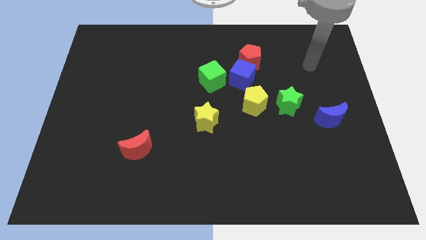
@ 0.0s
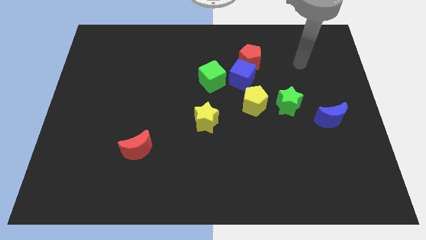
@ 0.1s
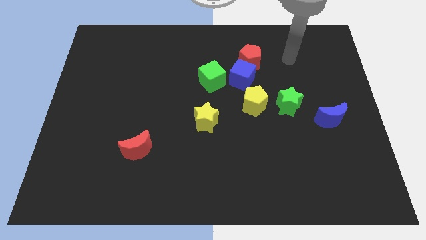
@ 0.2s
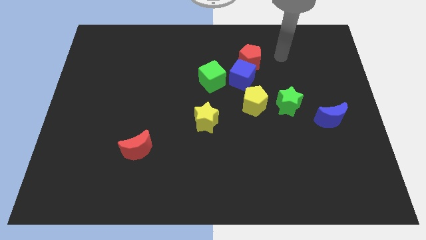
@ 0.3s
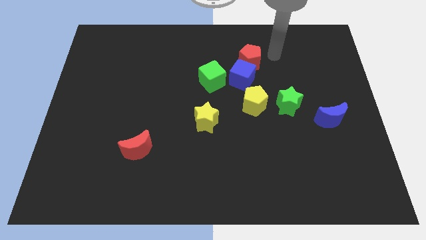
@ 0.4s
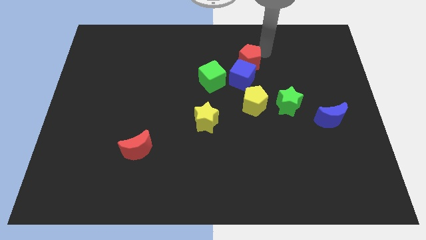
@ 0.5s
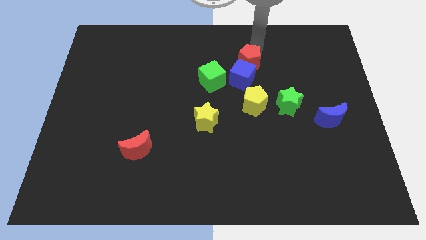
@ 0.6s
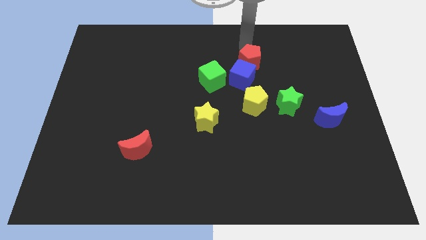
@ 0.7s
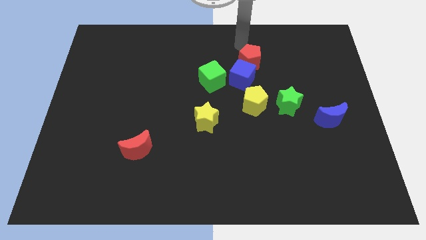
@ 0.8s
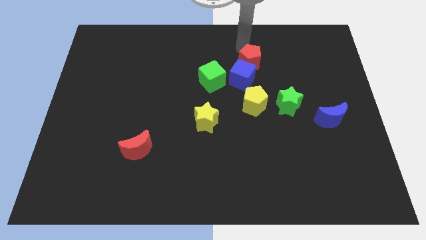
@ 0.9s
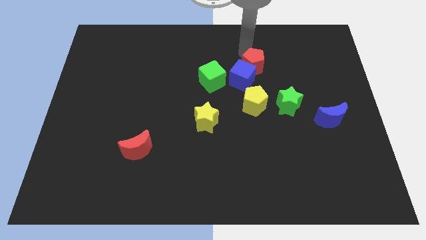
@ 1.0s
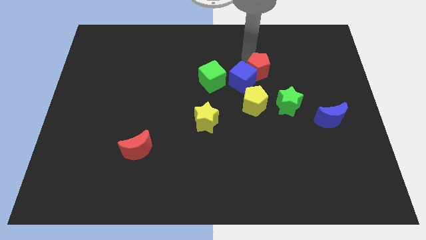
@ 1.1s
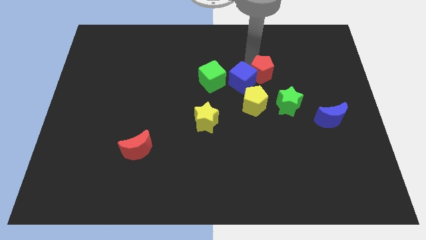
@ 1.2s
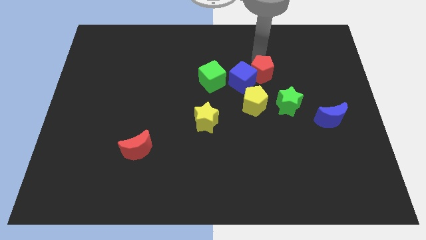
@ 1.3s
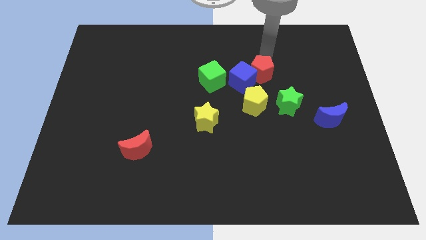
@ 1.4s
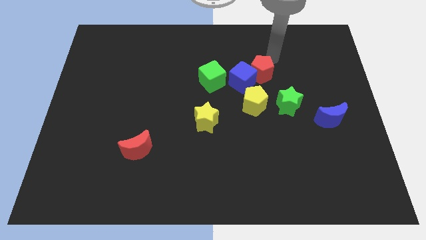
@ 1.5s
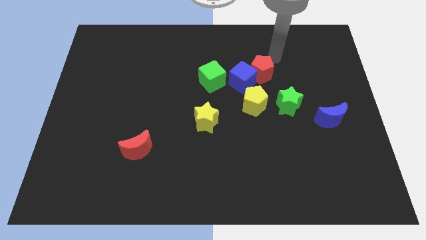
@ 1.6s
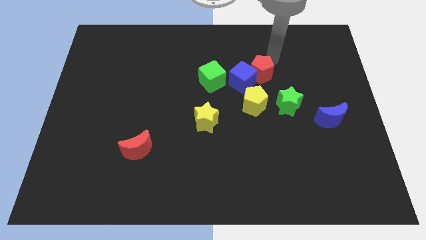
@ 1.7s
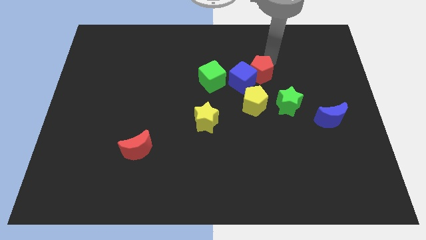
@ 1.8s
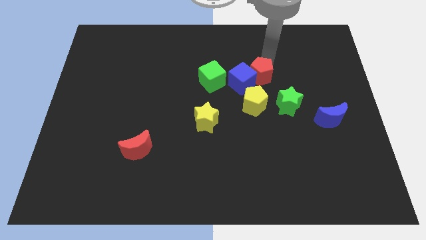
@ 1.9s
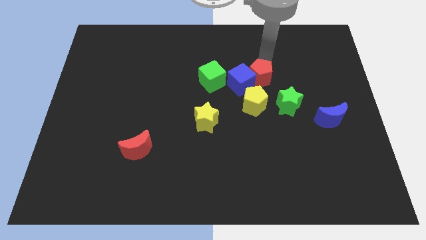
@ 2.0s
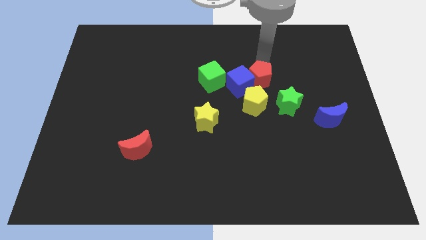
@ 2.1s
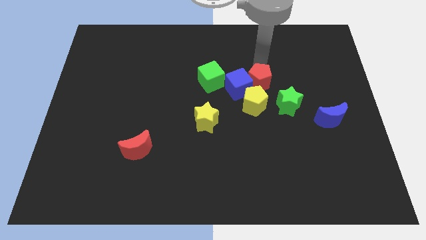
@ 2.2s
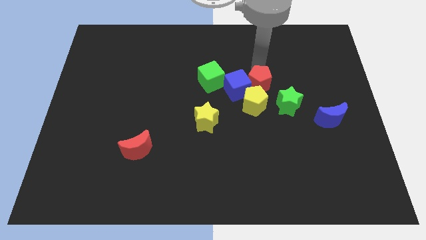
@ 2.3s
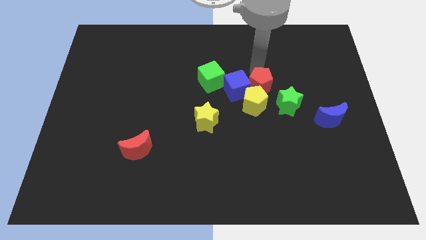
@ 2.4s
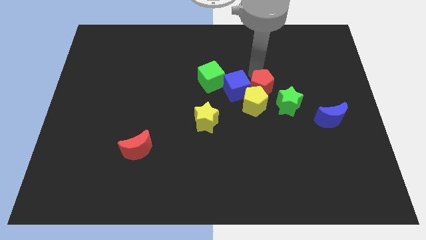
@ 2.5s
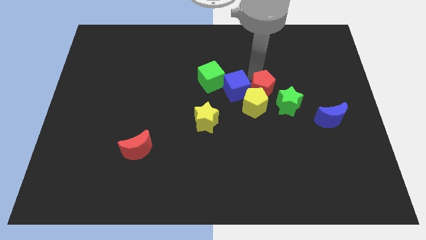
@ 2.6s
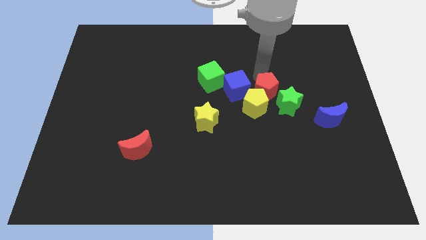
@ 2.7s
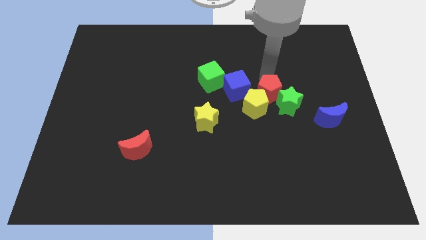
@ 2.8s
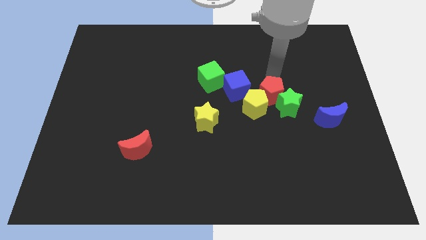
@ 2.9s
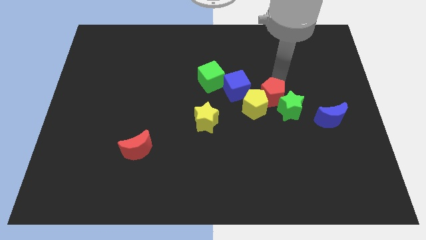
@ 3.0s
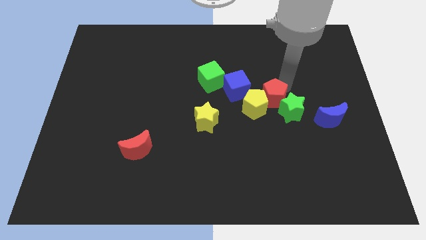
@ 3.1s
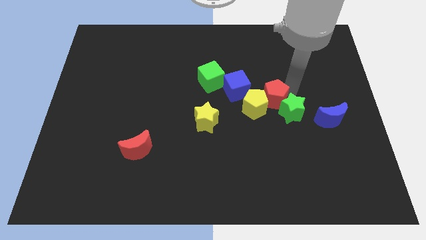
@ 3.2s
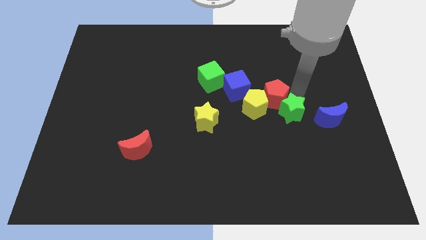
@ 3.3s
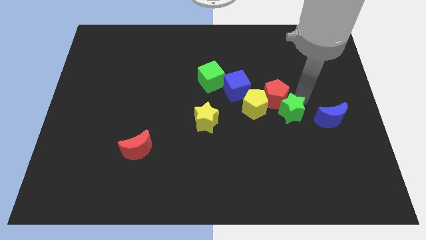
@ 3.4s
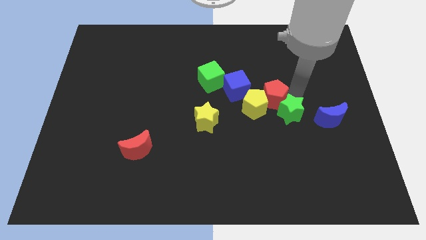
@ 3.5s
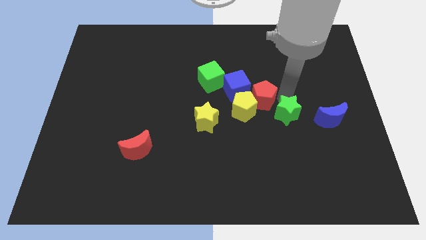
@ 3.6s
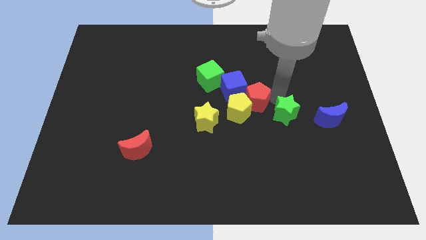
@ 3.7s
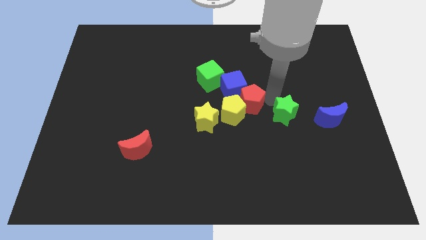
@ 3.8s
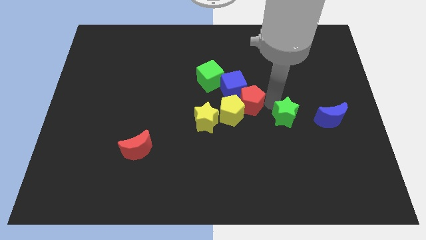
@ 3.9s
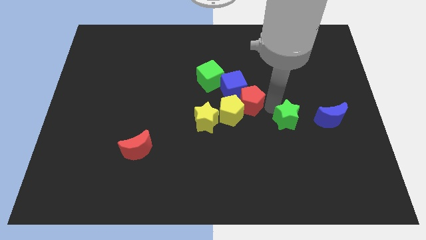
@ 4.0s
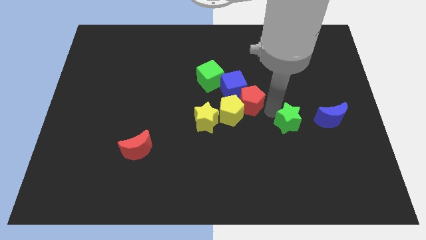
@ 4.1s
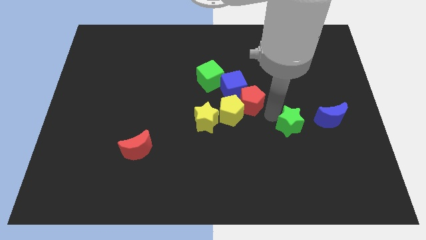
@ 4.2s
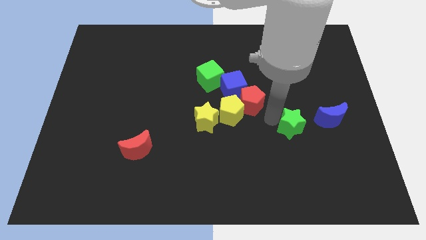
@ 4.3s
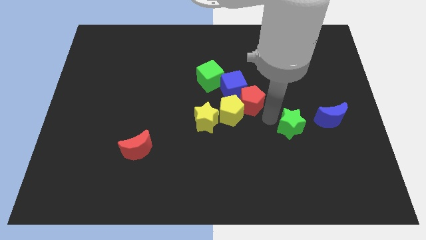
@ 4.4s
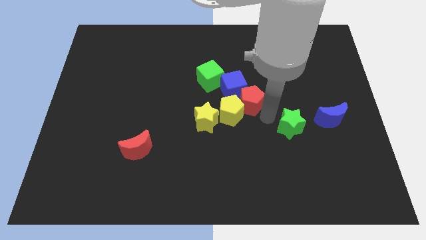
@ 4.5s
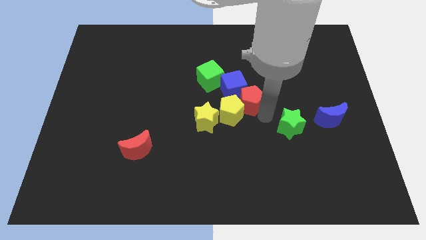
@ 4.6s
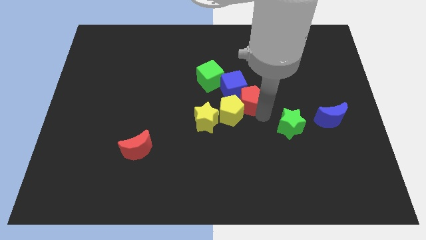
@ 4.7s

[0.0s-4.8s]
push the red pentagon a little bit diagonally down and left

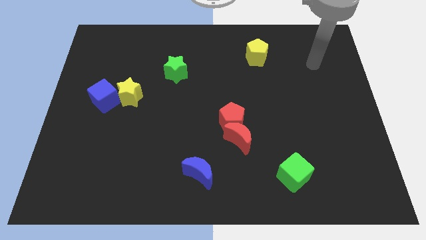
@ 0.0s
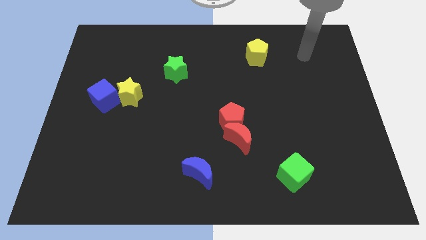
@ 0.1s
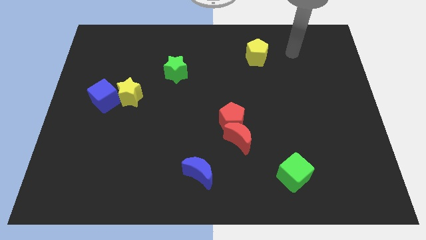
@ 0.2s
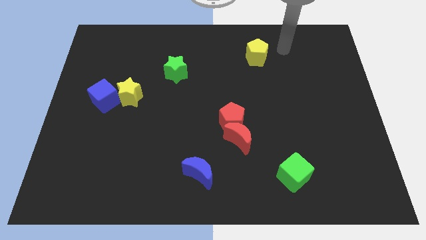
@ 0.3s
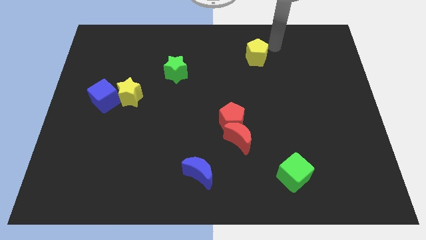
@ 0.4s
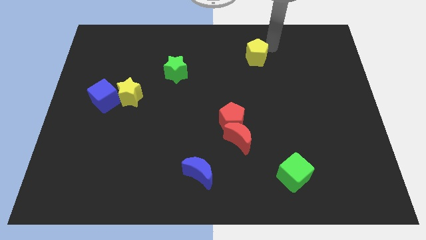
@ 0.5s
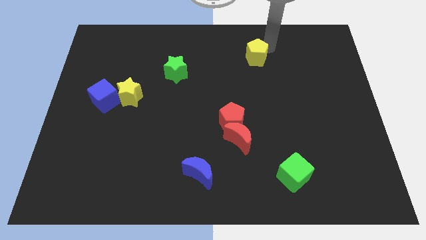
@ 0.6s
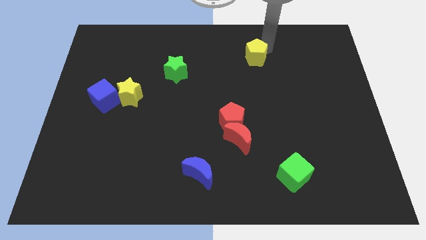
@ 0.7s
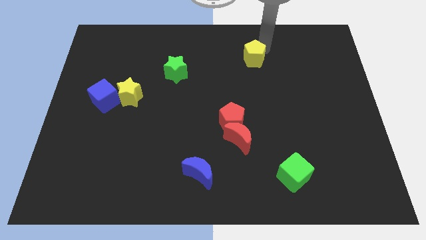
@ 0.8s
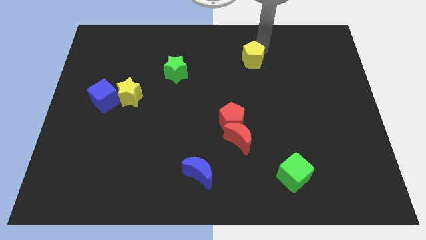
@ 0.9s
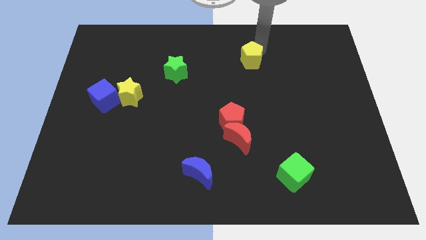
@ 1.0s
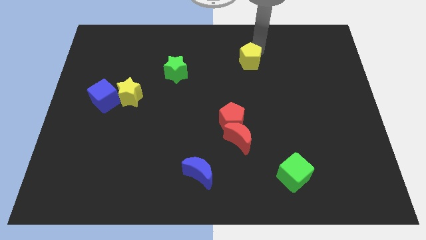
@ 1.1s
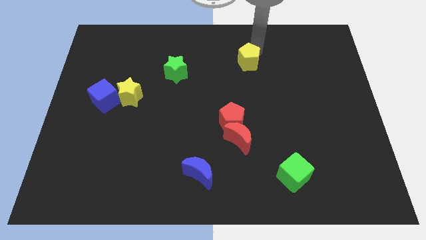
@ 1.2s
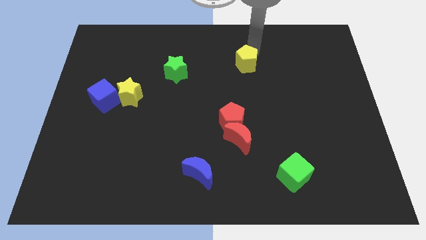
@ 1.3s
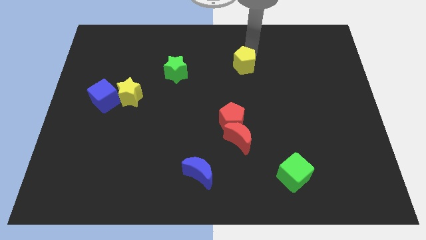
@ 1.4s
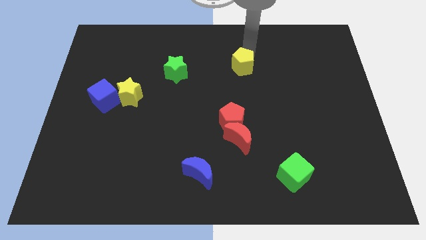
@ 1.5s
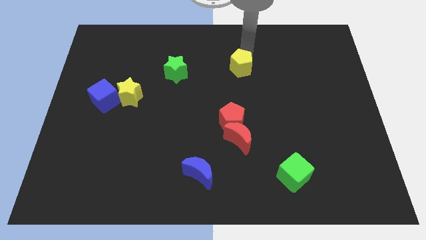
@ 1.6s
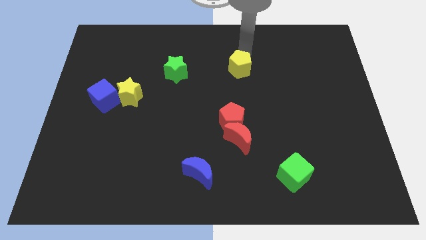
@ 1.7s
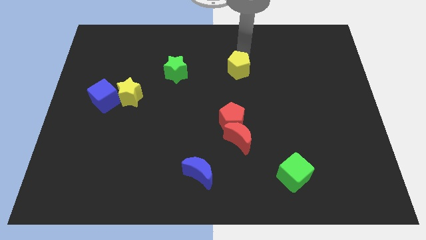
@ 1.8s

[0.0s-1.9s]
slightly push the yellow pentagon diagonally down and left

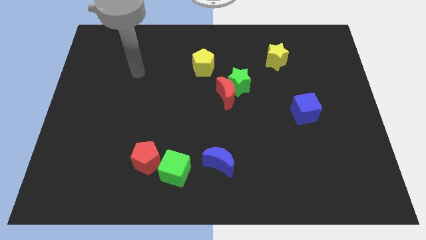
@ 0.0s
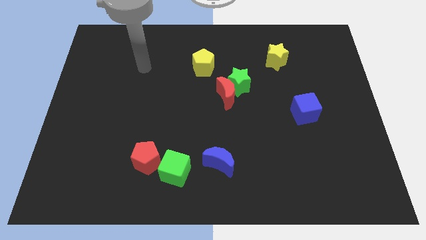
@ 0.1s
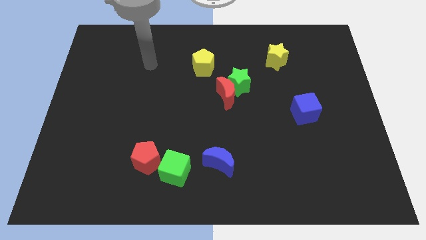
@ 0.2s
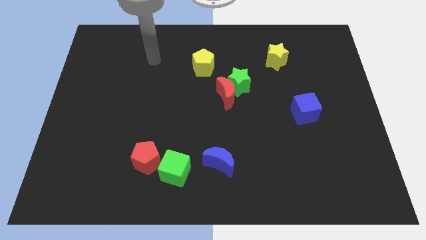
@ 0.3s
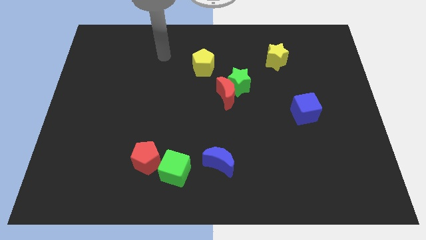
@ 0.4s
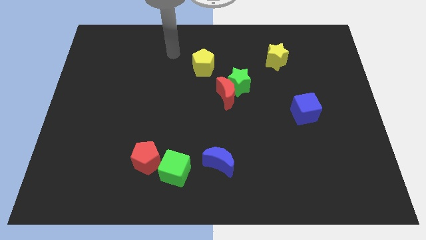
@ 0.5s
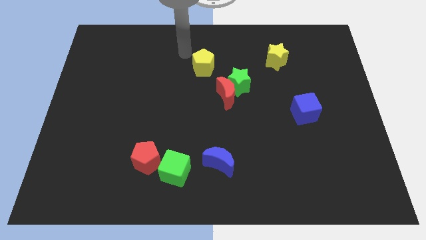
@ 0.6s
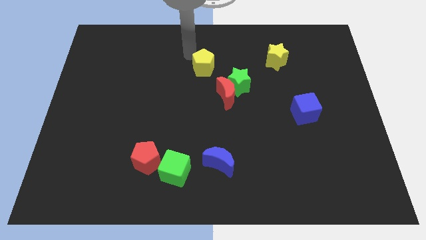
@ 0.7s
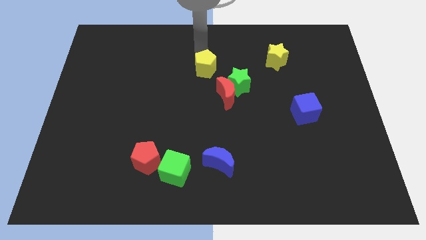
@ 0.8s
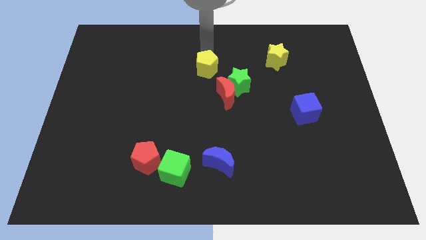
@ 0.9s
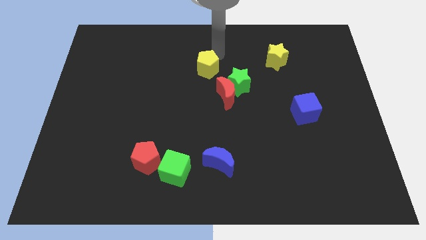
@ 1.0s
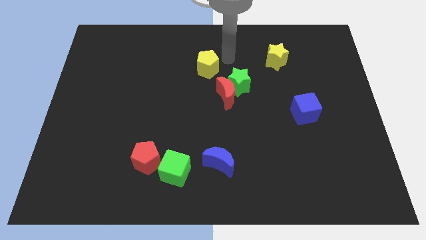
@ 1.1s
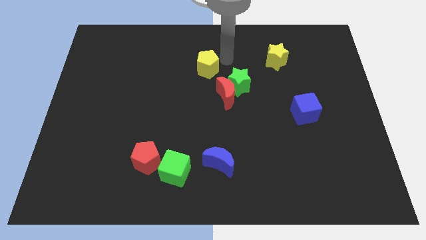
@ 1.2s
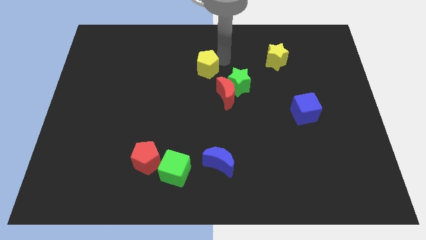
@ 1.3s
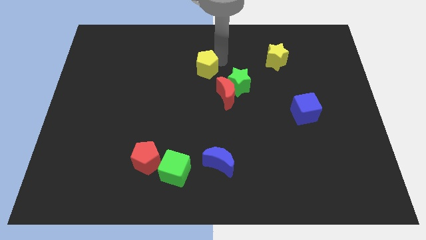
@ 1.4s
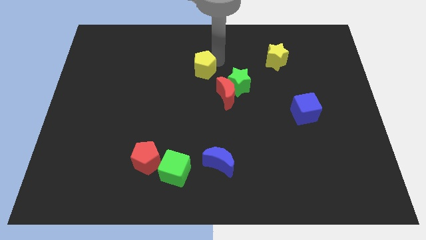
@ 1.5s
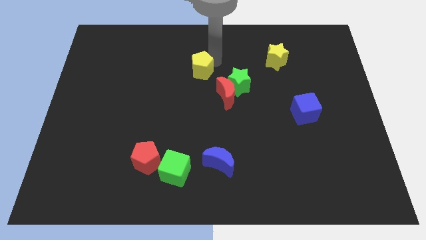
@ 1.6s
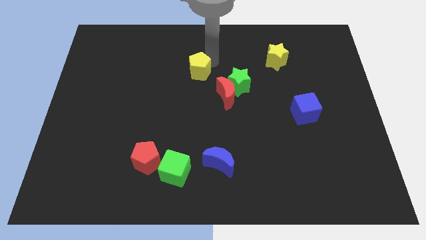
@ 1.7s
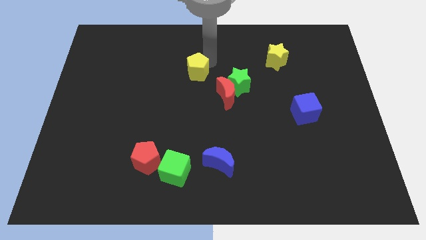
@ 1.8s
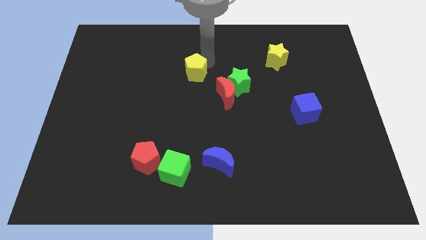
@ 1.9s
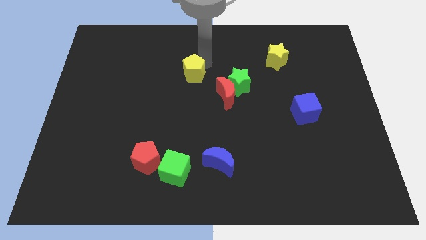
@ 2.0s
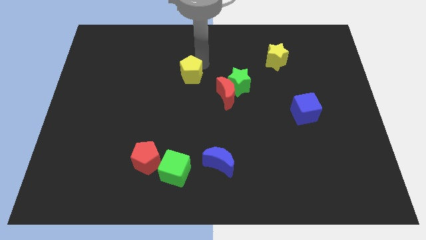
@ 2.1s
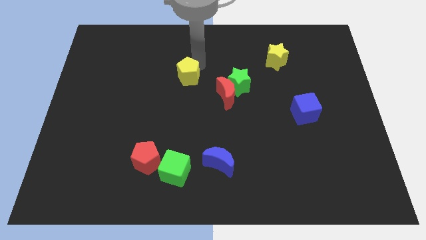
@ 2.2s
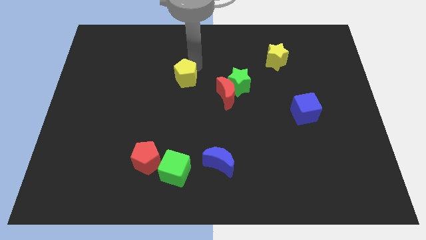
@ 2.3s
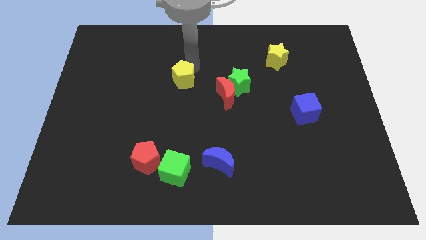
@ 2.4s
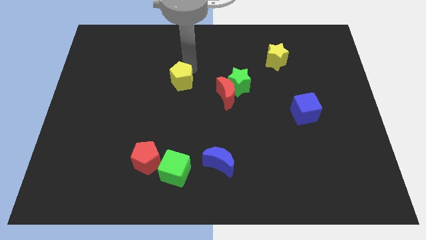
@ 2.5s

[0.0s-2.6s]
move the yellow pentagon down and left a little bit
